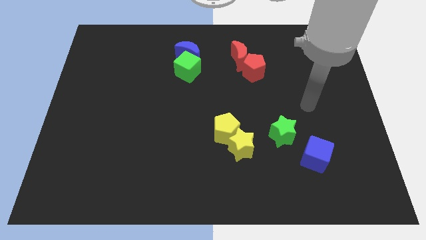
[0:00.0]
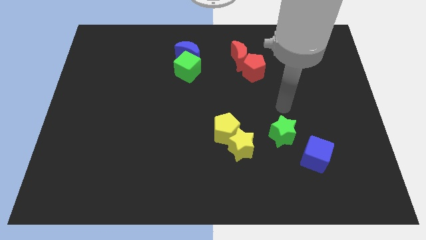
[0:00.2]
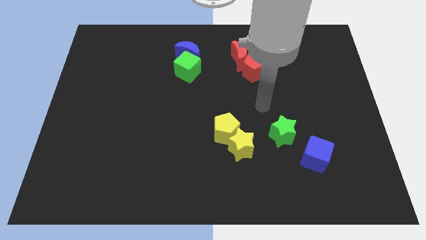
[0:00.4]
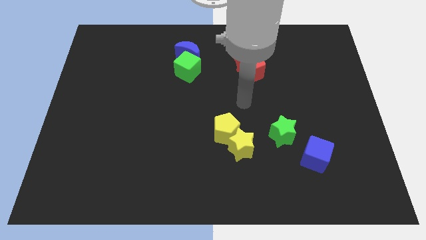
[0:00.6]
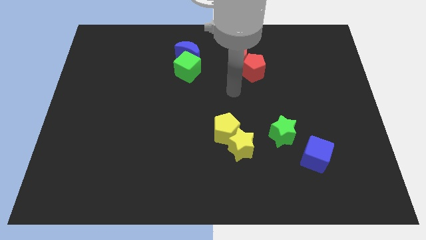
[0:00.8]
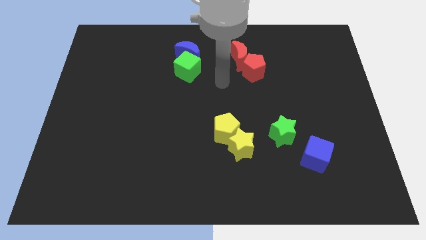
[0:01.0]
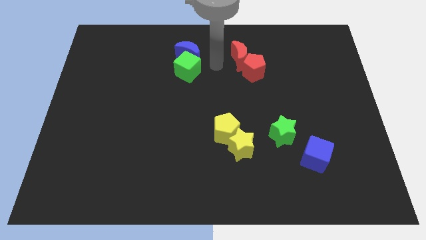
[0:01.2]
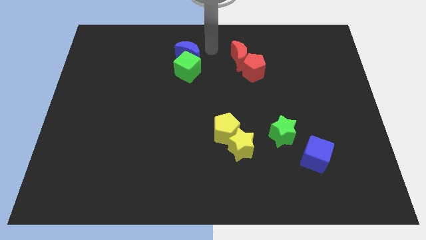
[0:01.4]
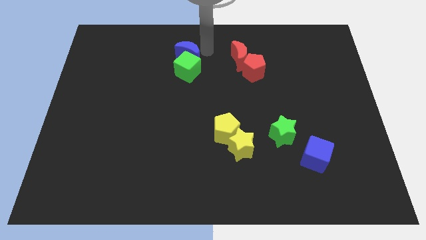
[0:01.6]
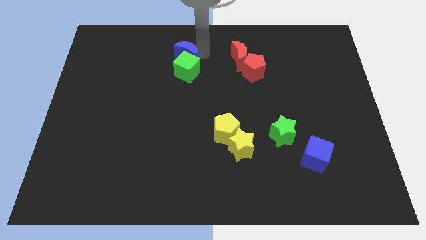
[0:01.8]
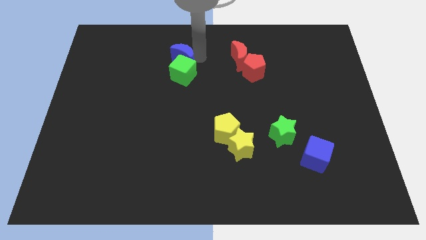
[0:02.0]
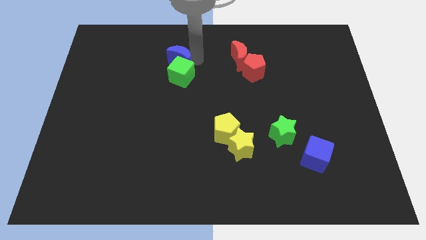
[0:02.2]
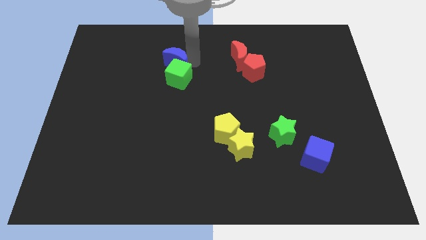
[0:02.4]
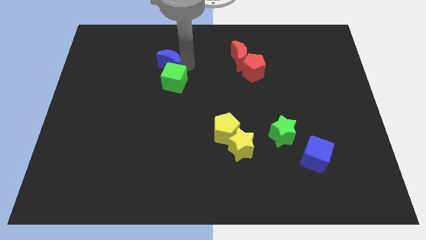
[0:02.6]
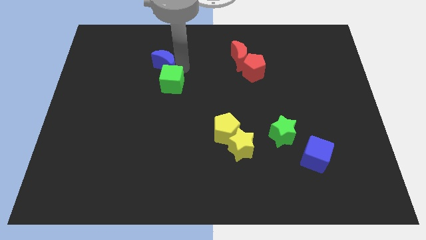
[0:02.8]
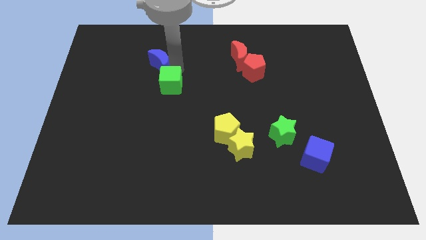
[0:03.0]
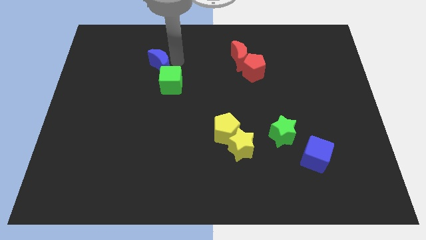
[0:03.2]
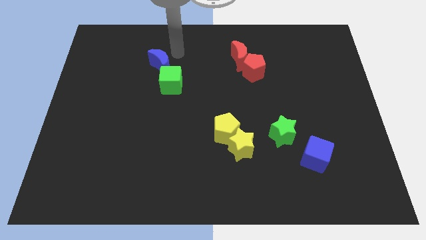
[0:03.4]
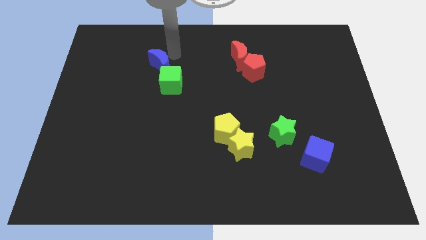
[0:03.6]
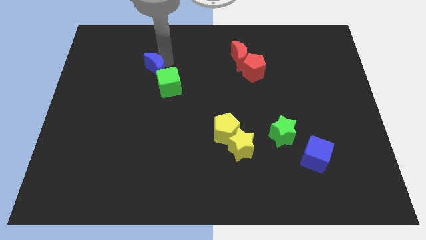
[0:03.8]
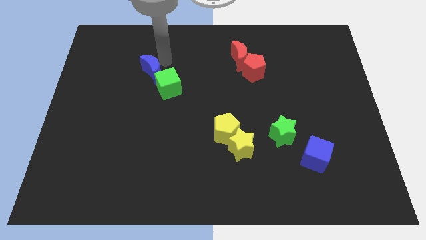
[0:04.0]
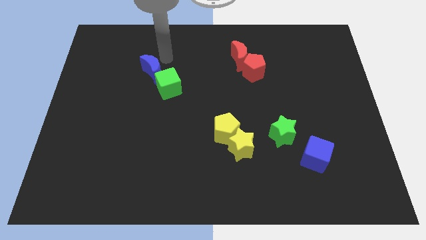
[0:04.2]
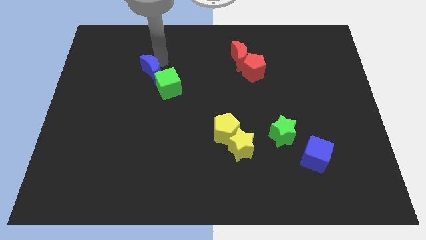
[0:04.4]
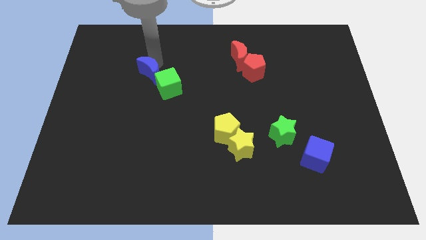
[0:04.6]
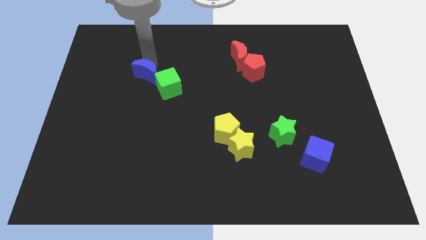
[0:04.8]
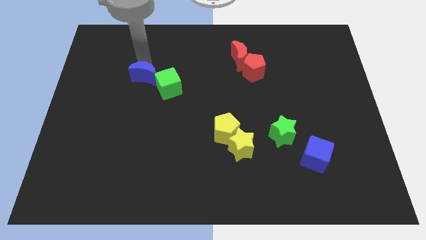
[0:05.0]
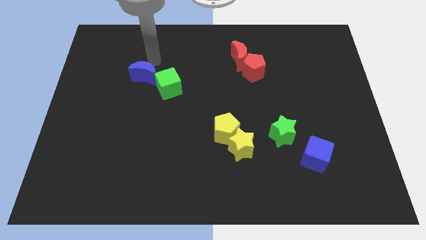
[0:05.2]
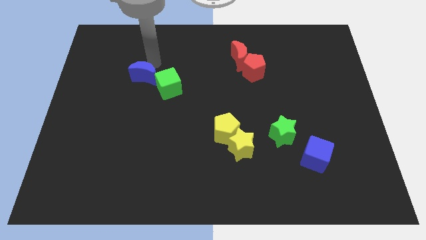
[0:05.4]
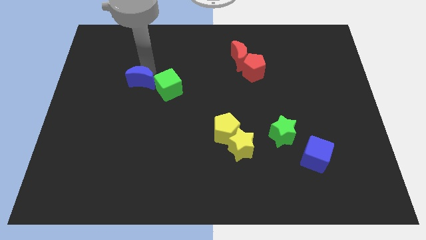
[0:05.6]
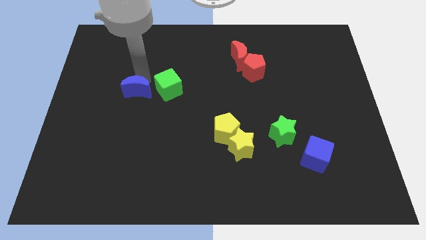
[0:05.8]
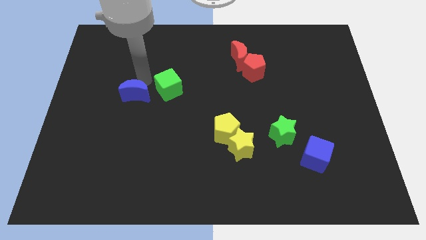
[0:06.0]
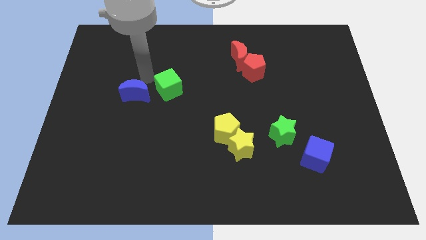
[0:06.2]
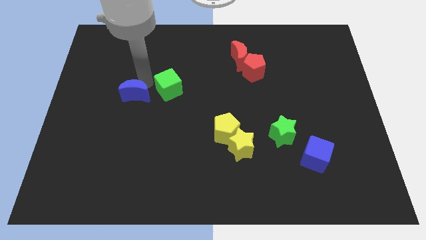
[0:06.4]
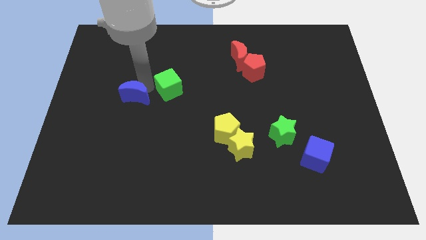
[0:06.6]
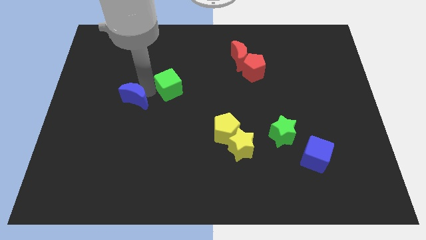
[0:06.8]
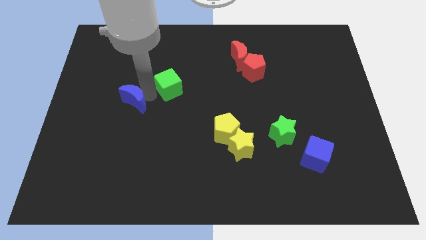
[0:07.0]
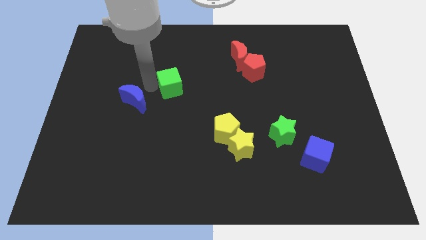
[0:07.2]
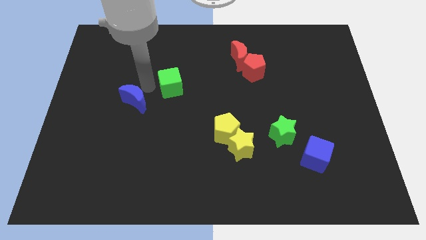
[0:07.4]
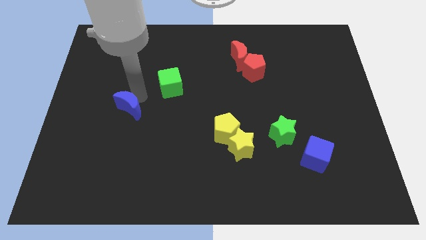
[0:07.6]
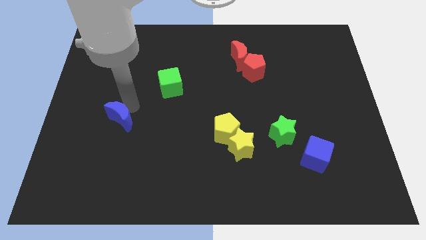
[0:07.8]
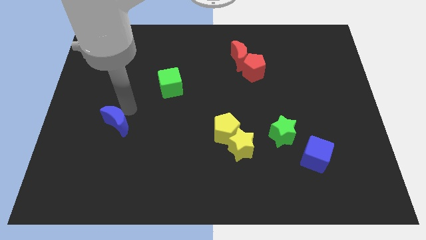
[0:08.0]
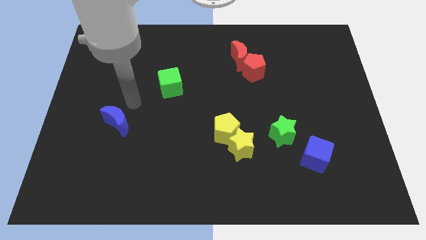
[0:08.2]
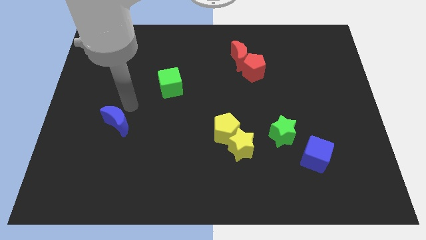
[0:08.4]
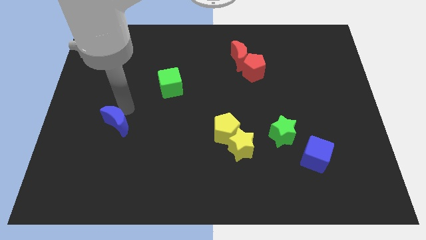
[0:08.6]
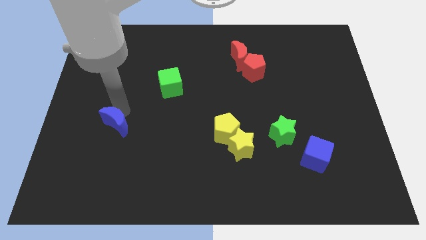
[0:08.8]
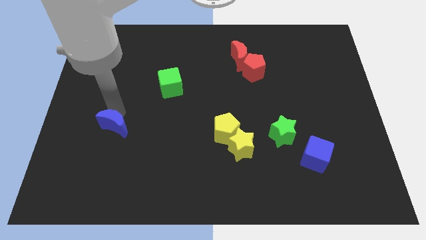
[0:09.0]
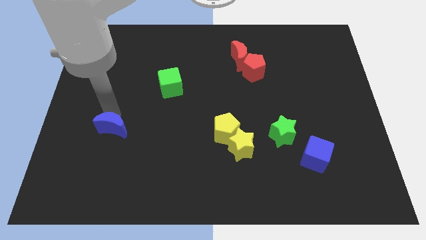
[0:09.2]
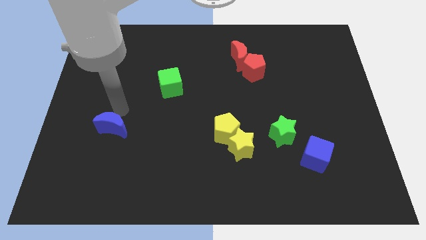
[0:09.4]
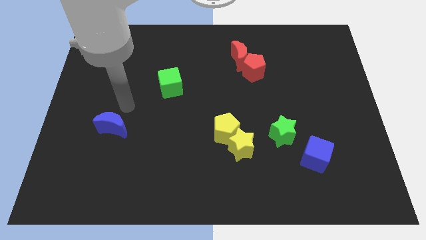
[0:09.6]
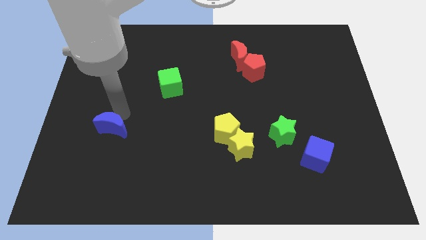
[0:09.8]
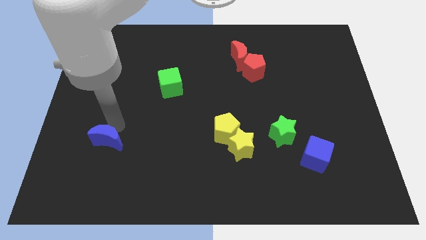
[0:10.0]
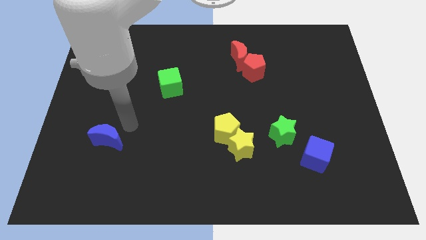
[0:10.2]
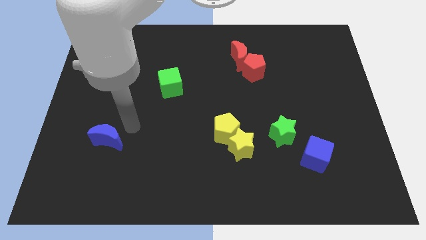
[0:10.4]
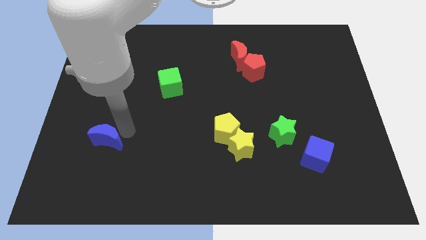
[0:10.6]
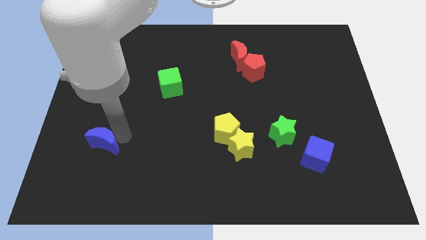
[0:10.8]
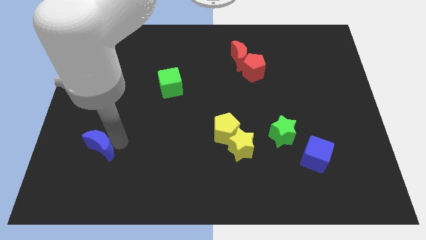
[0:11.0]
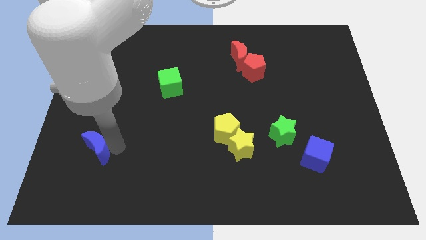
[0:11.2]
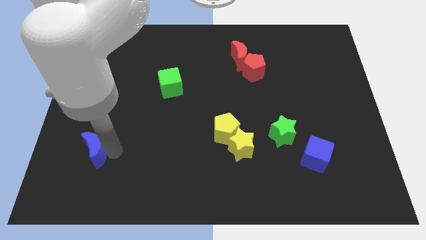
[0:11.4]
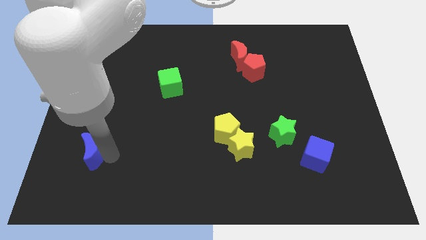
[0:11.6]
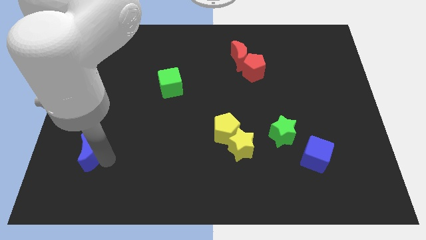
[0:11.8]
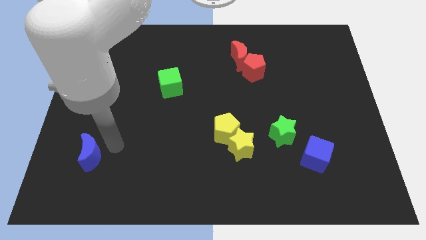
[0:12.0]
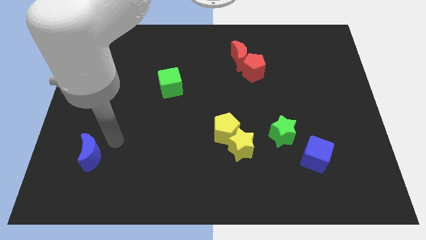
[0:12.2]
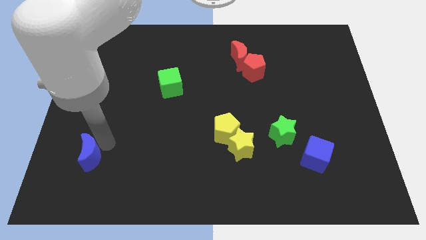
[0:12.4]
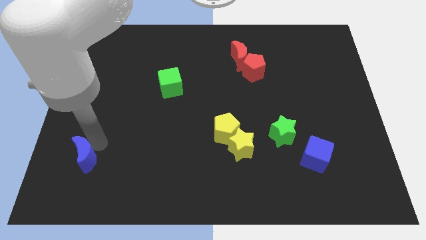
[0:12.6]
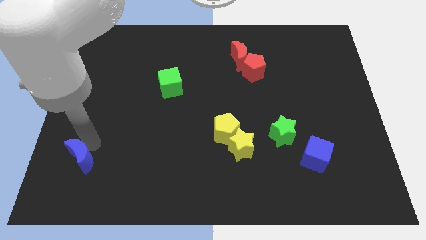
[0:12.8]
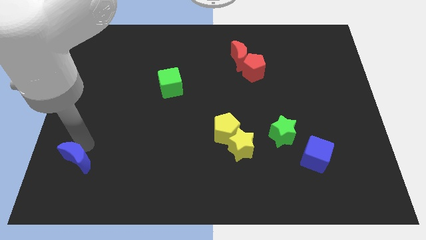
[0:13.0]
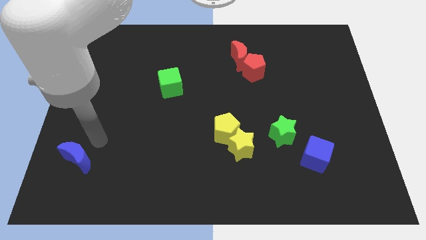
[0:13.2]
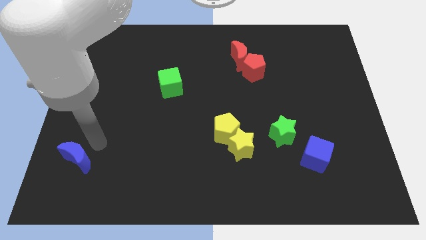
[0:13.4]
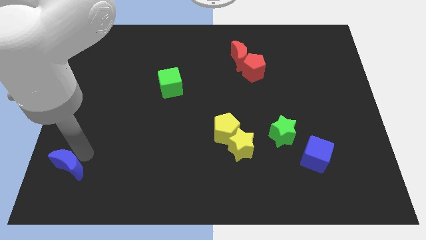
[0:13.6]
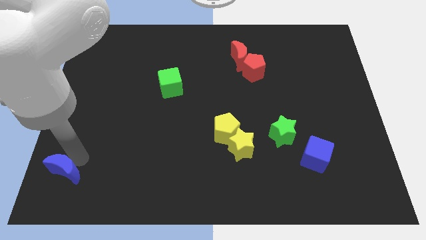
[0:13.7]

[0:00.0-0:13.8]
move the blue moon to the bottom left of the board

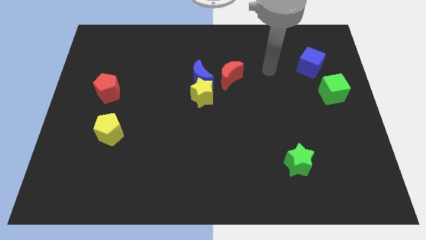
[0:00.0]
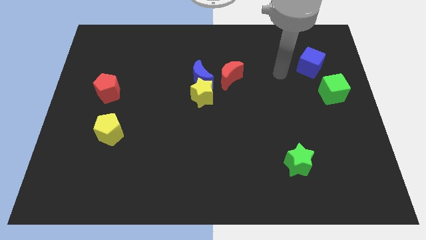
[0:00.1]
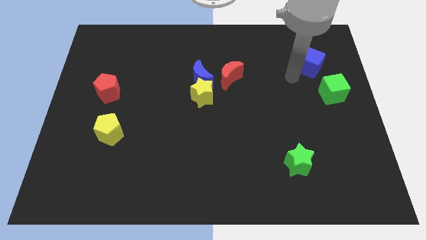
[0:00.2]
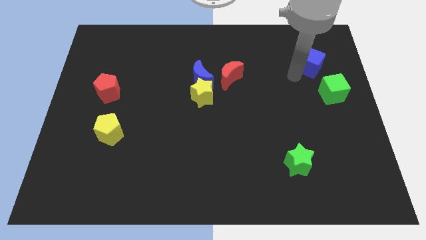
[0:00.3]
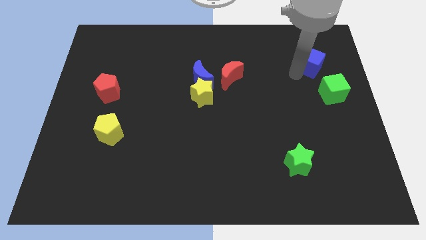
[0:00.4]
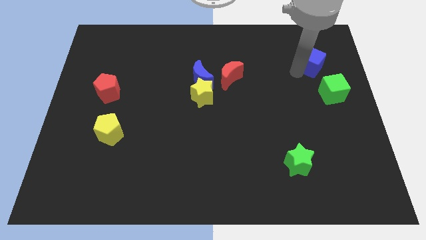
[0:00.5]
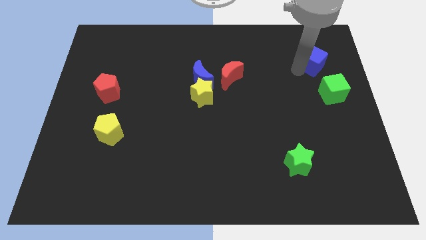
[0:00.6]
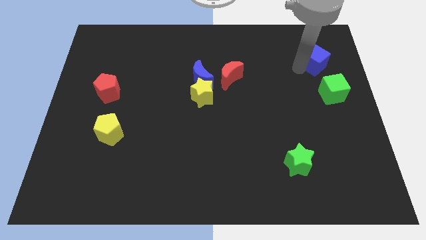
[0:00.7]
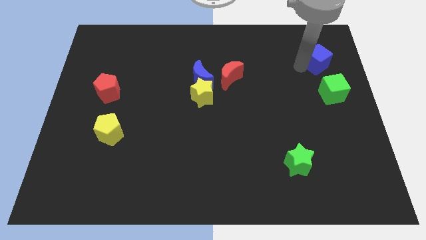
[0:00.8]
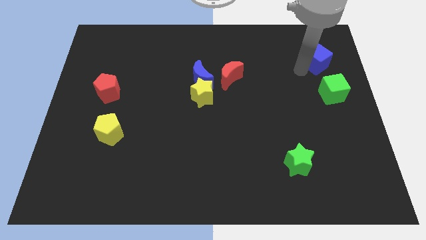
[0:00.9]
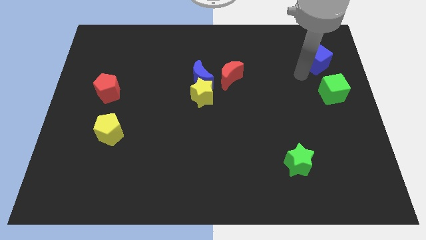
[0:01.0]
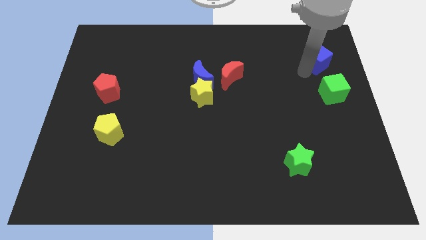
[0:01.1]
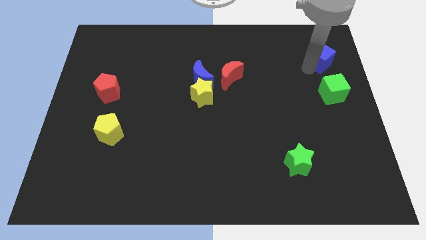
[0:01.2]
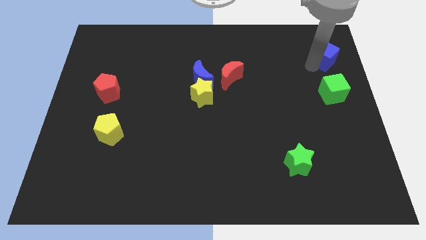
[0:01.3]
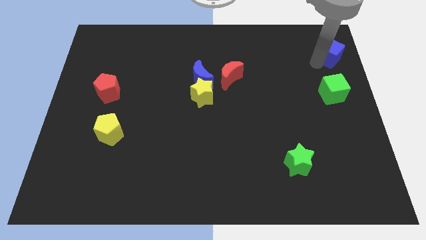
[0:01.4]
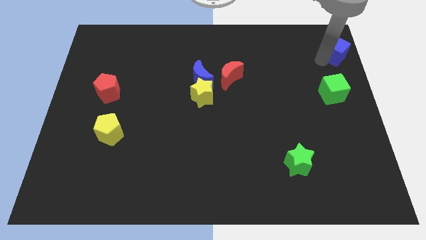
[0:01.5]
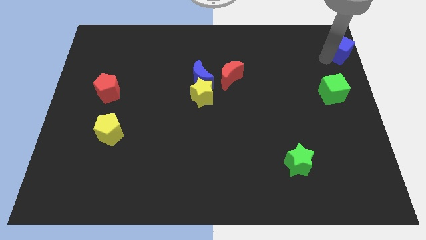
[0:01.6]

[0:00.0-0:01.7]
move the blue cube to the top right of the board
